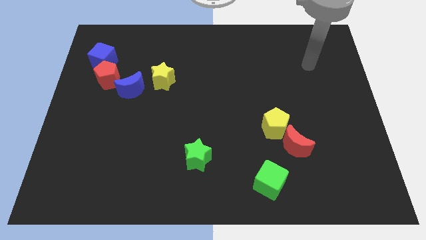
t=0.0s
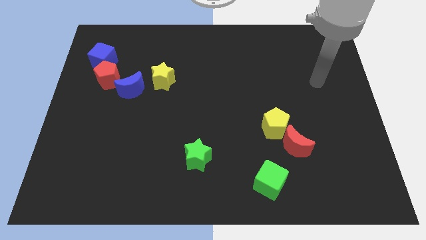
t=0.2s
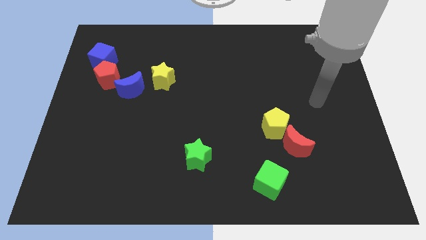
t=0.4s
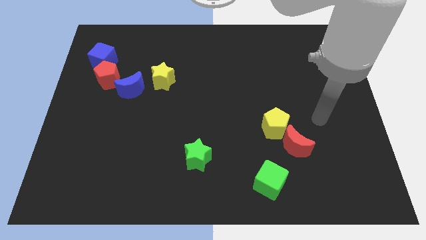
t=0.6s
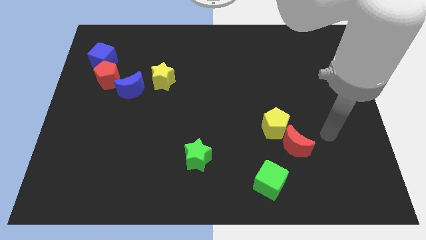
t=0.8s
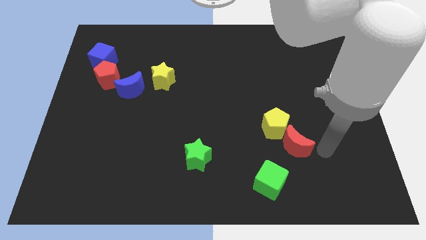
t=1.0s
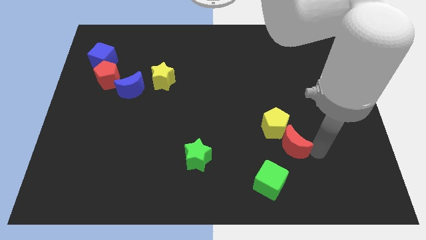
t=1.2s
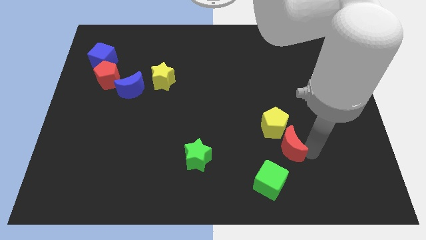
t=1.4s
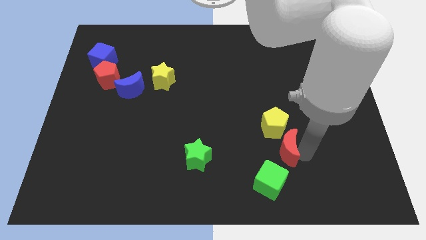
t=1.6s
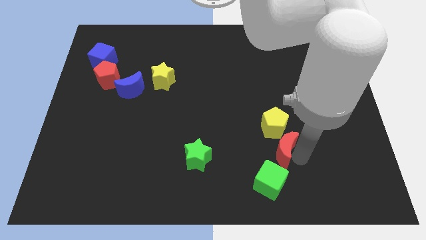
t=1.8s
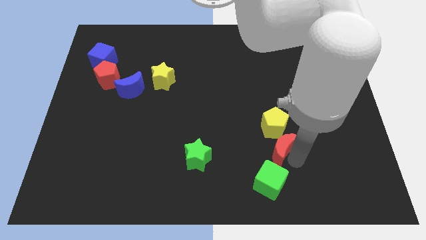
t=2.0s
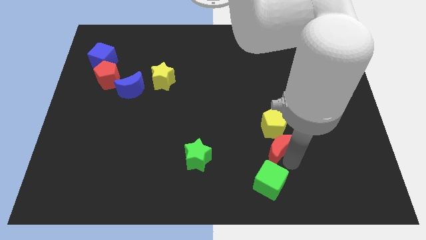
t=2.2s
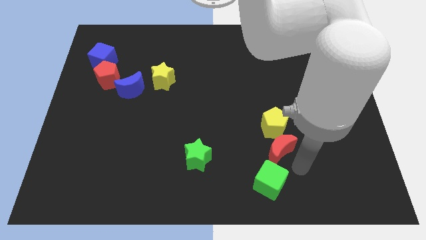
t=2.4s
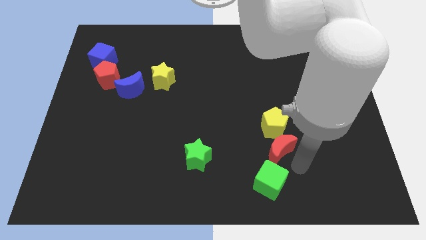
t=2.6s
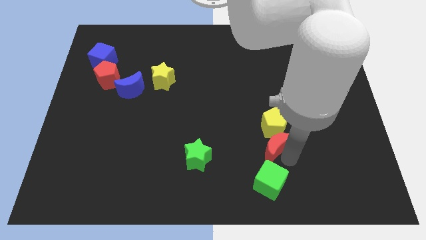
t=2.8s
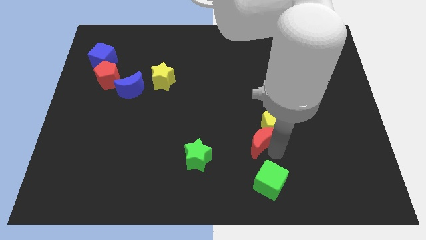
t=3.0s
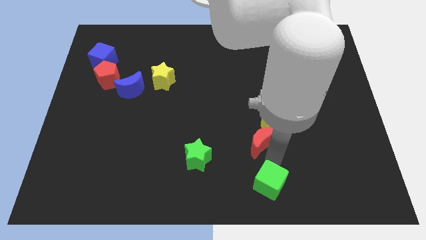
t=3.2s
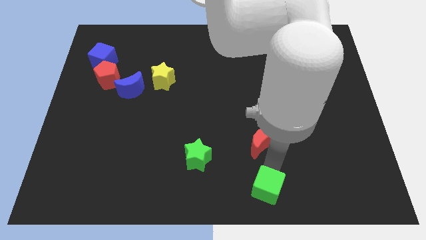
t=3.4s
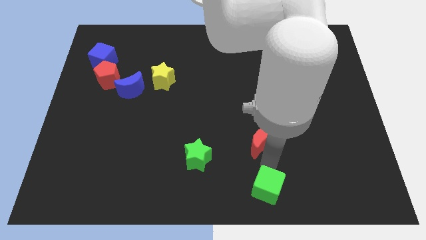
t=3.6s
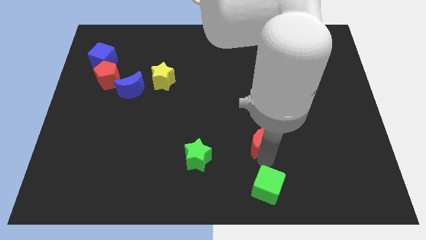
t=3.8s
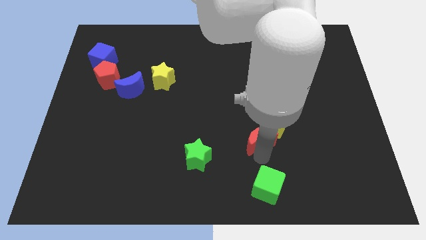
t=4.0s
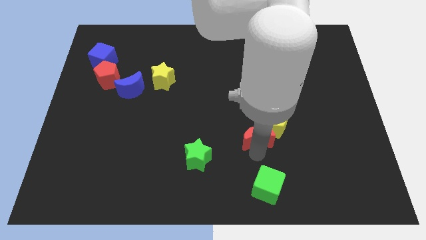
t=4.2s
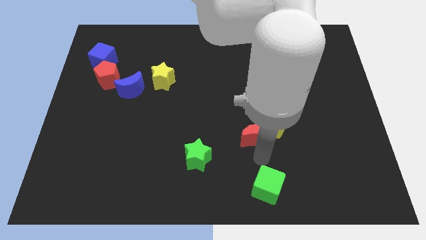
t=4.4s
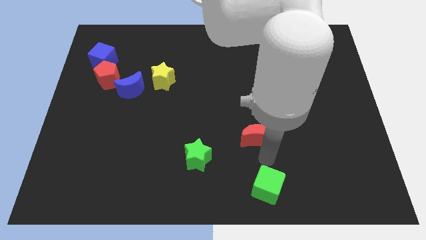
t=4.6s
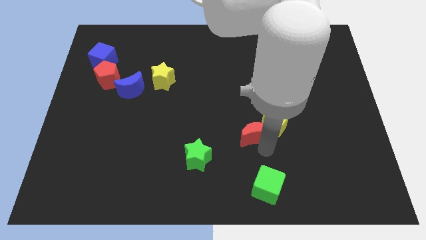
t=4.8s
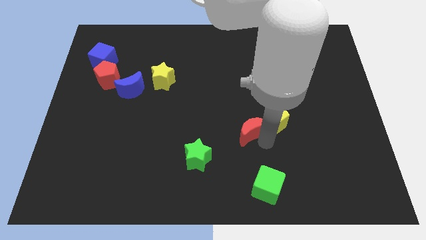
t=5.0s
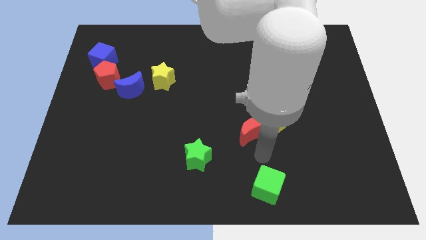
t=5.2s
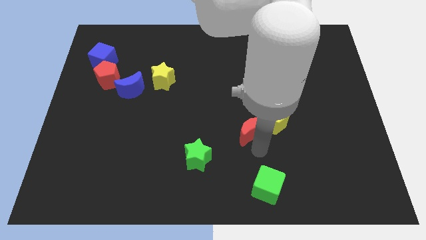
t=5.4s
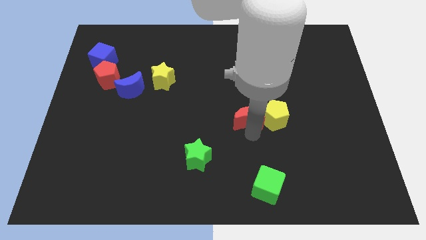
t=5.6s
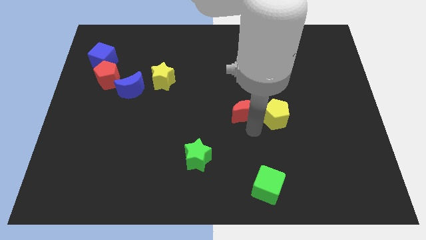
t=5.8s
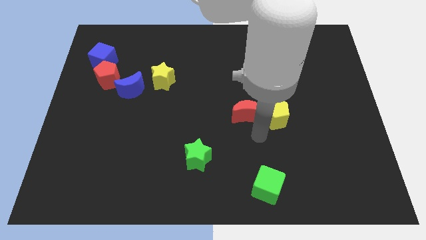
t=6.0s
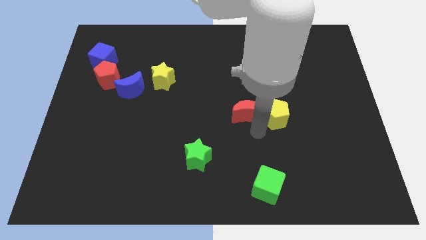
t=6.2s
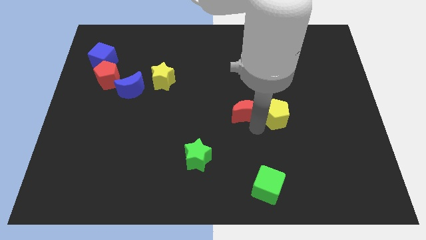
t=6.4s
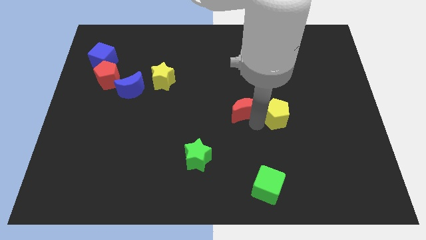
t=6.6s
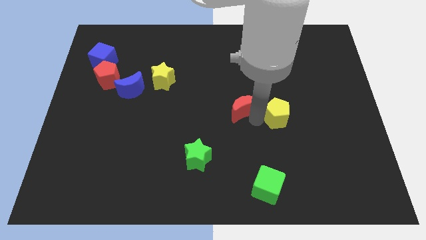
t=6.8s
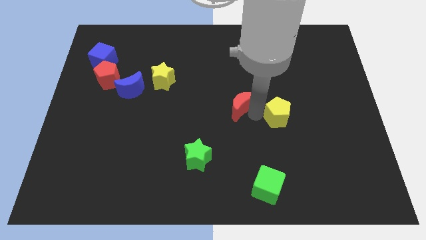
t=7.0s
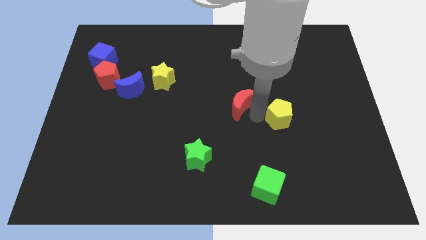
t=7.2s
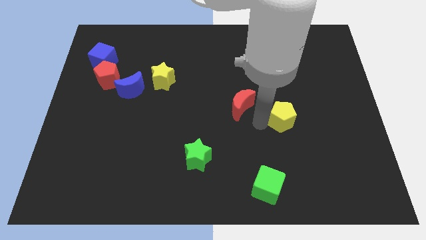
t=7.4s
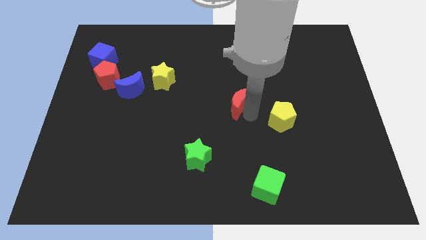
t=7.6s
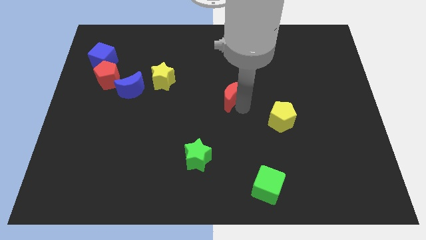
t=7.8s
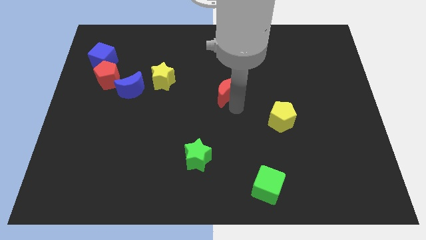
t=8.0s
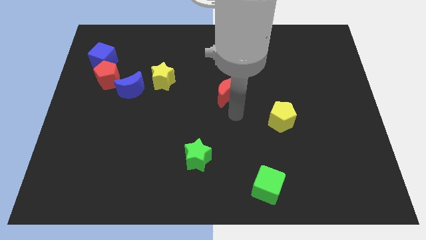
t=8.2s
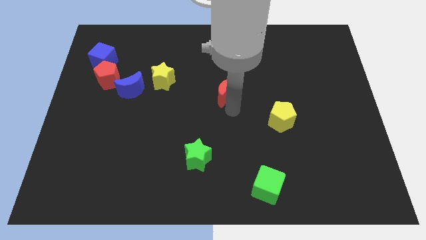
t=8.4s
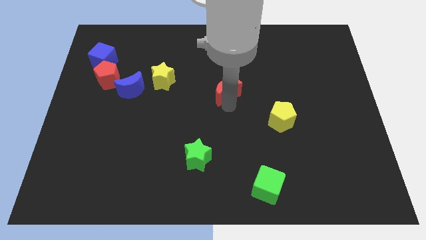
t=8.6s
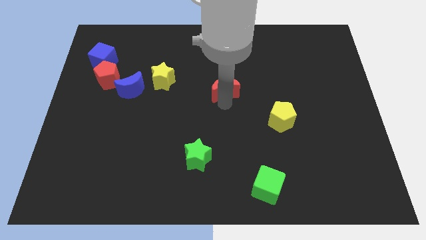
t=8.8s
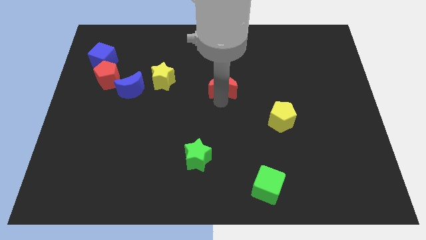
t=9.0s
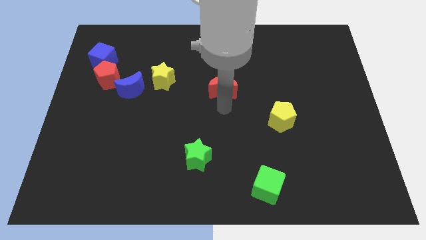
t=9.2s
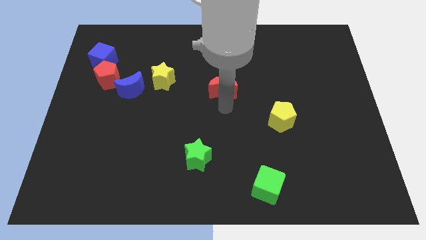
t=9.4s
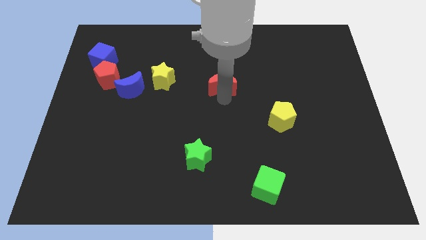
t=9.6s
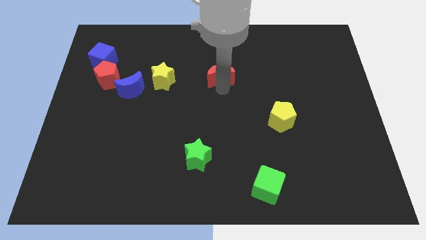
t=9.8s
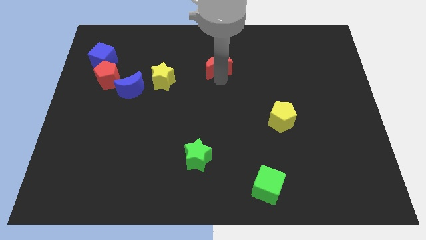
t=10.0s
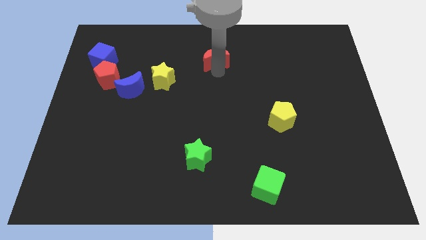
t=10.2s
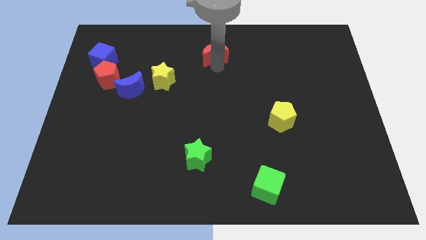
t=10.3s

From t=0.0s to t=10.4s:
push the red moon to the towards your base

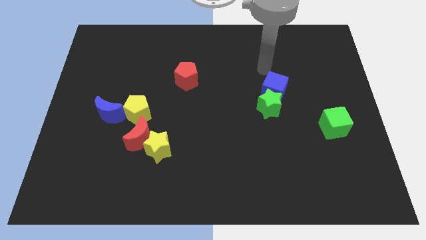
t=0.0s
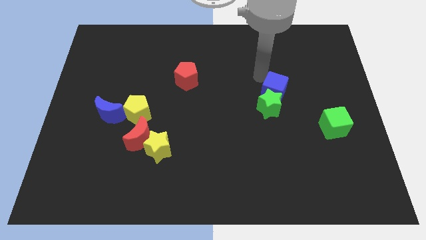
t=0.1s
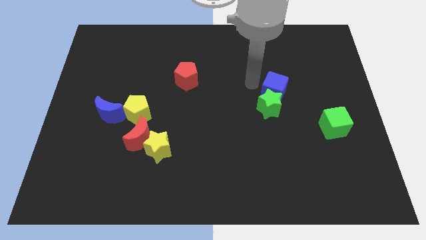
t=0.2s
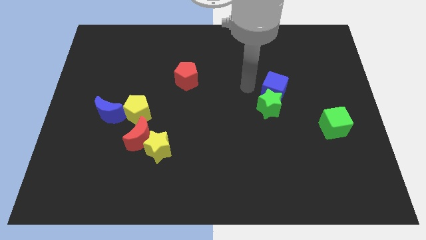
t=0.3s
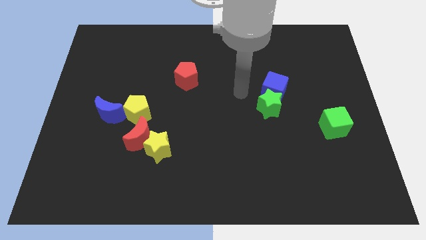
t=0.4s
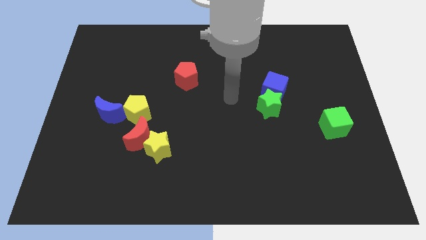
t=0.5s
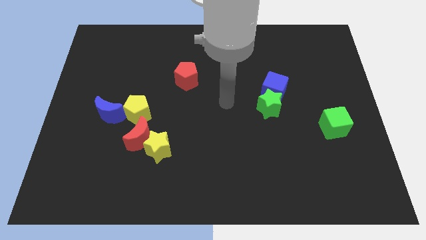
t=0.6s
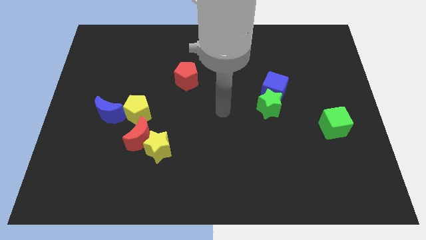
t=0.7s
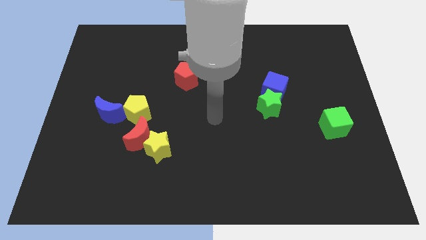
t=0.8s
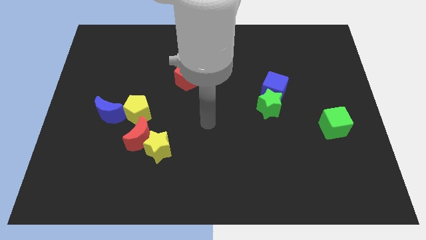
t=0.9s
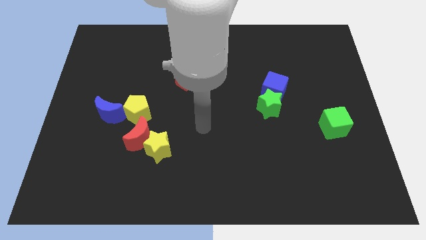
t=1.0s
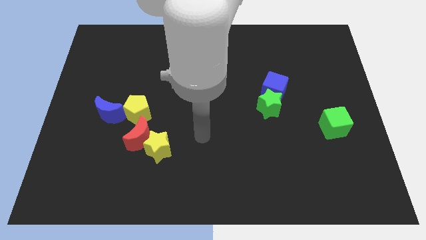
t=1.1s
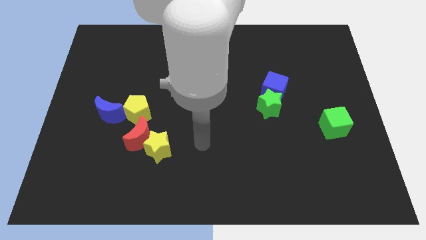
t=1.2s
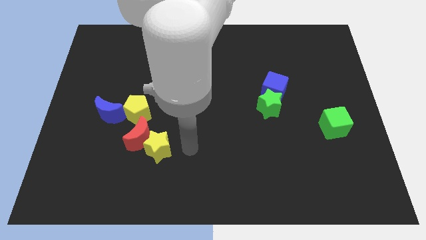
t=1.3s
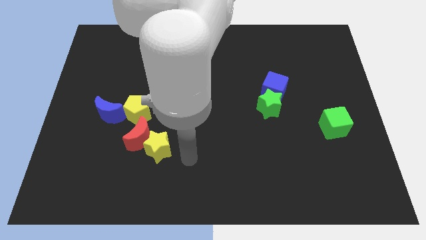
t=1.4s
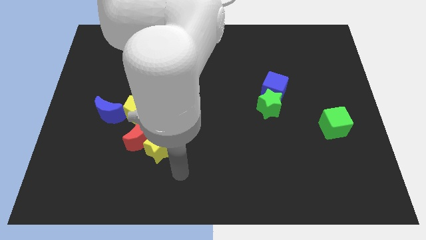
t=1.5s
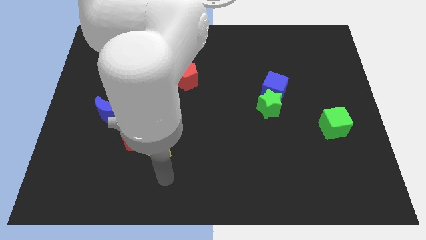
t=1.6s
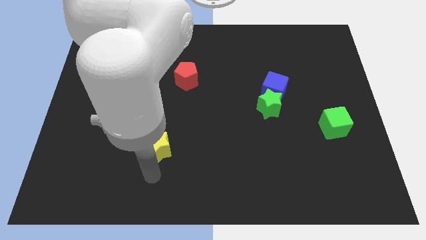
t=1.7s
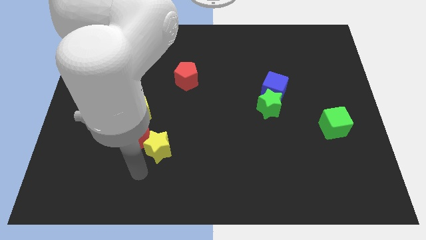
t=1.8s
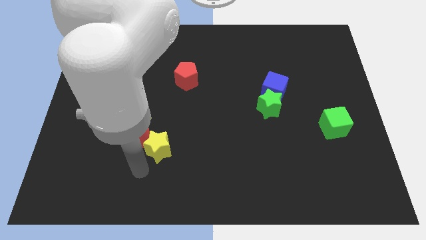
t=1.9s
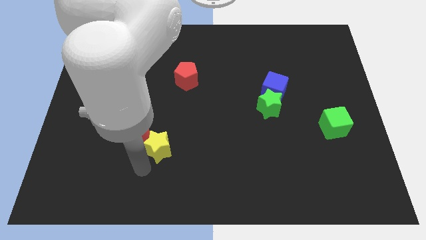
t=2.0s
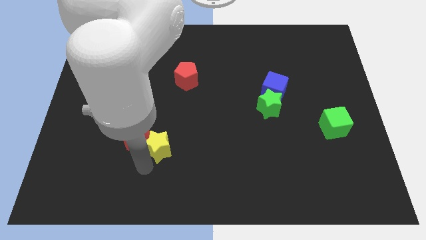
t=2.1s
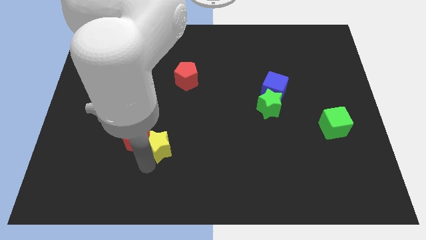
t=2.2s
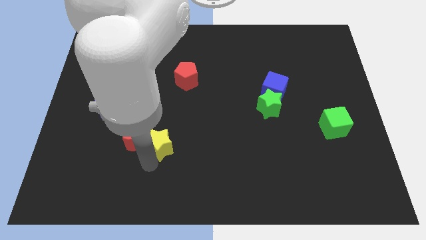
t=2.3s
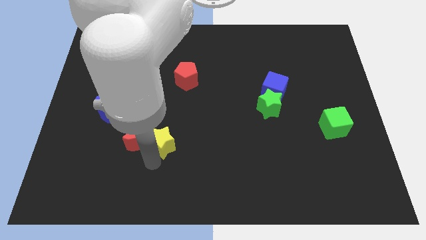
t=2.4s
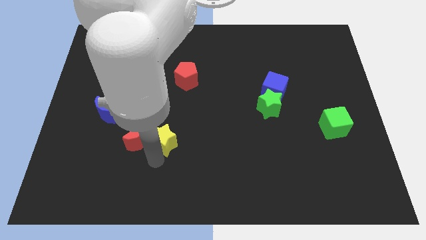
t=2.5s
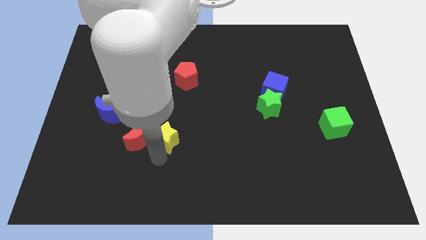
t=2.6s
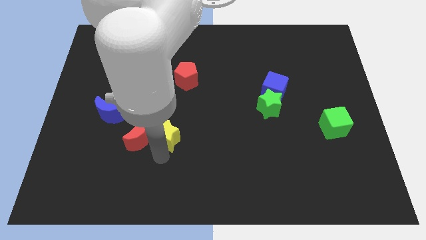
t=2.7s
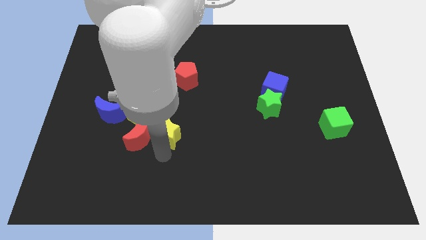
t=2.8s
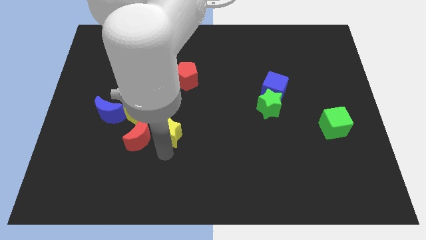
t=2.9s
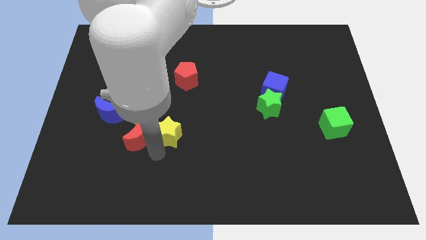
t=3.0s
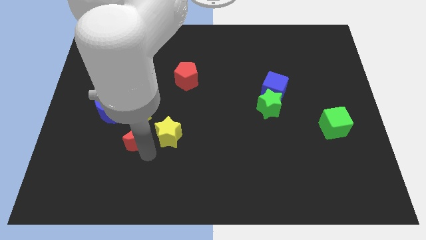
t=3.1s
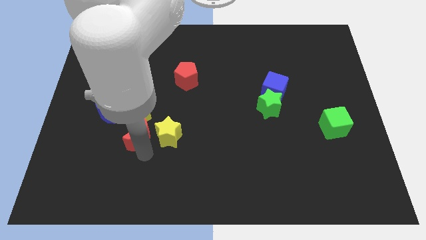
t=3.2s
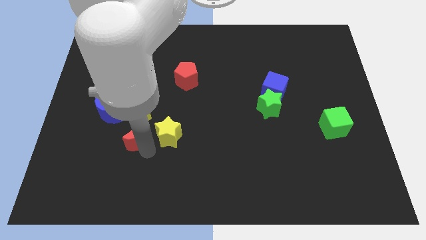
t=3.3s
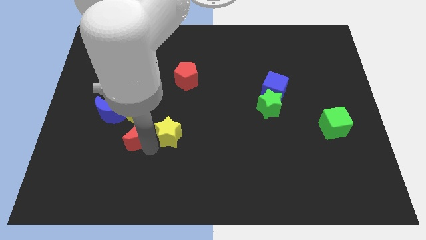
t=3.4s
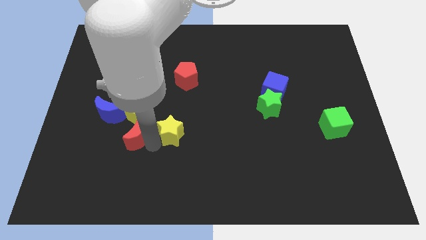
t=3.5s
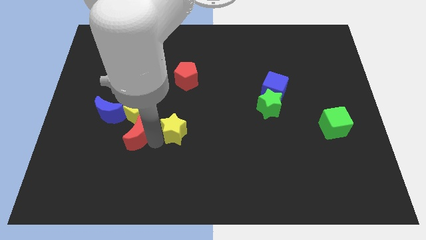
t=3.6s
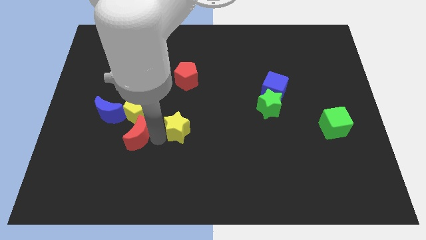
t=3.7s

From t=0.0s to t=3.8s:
move the yellow star to the middle of the board
